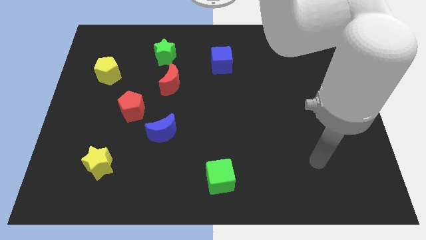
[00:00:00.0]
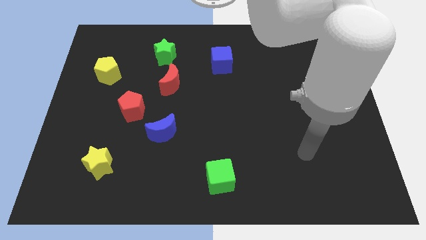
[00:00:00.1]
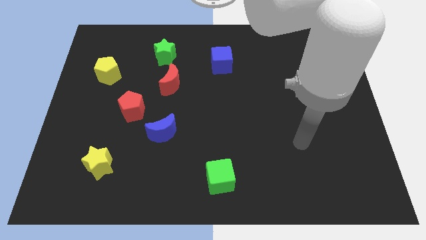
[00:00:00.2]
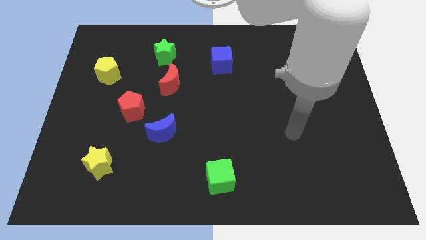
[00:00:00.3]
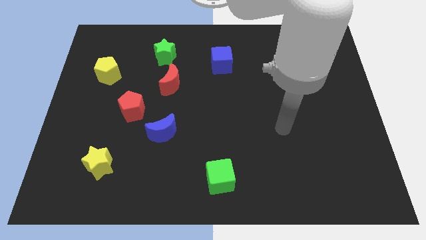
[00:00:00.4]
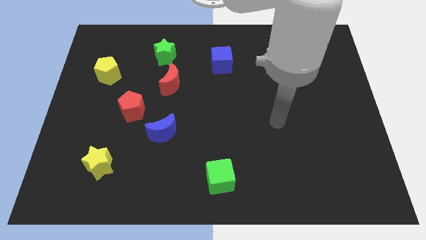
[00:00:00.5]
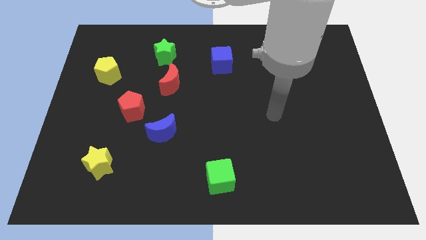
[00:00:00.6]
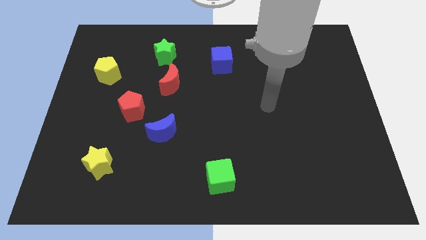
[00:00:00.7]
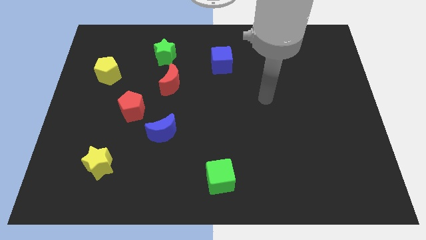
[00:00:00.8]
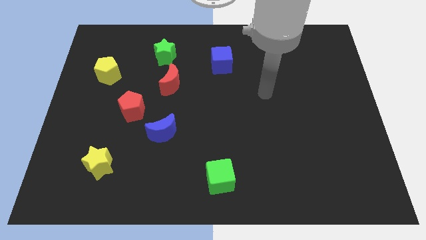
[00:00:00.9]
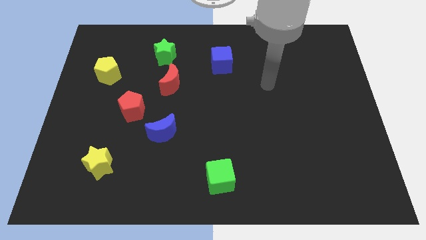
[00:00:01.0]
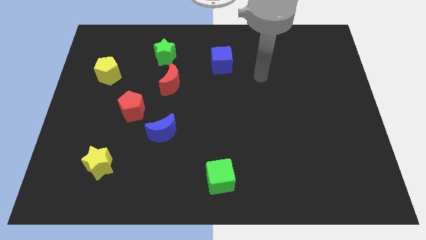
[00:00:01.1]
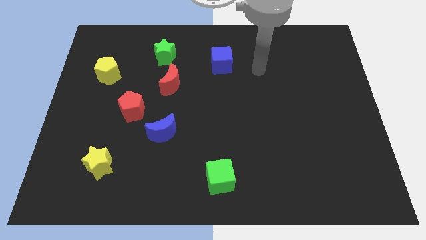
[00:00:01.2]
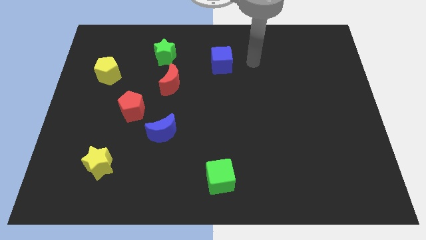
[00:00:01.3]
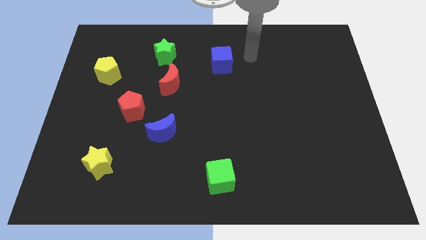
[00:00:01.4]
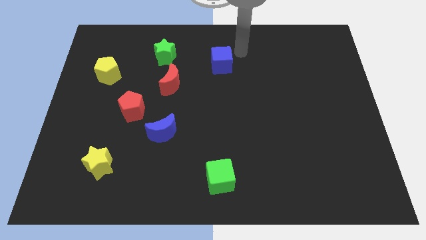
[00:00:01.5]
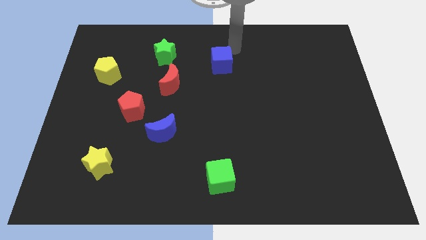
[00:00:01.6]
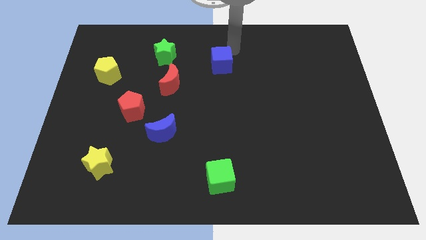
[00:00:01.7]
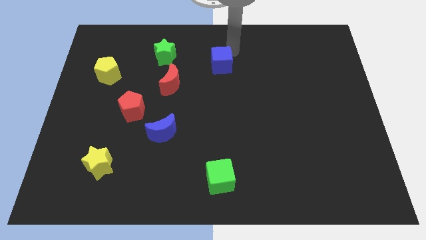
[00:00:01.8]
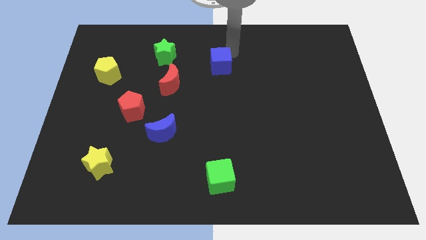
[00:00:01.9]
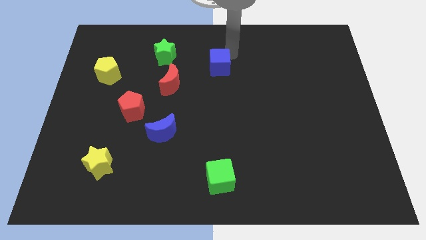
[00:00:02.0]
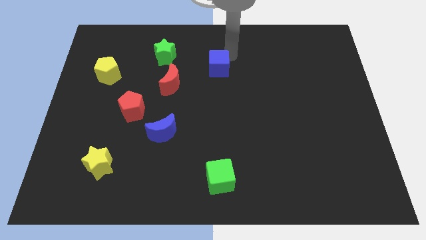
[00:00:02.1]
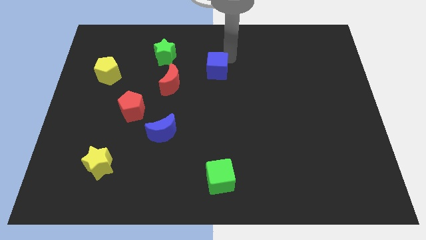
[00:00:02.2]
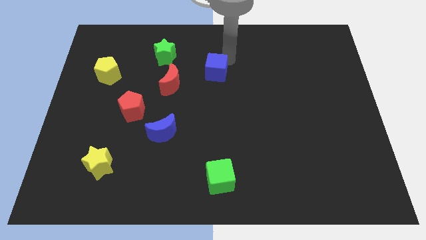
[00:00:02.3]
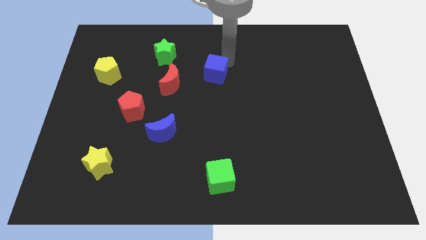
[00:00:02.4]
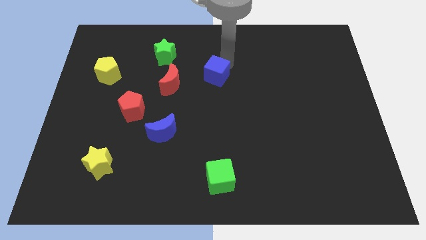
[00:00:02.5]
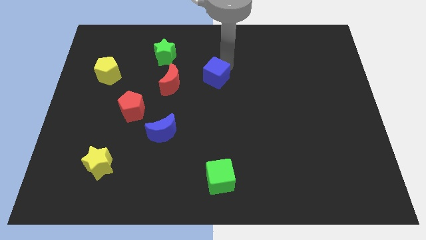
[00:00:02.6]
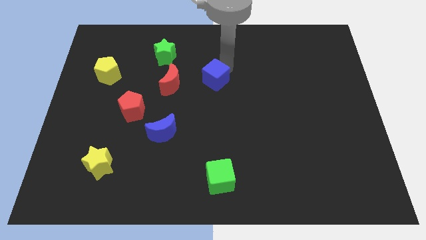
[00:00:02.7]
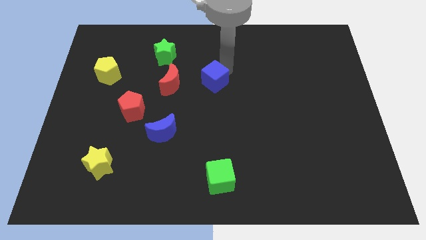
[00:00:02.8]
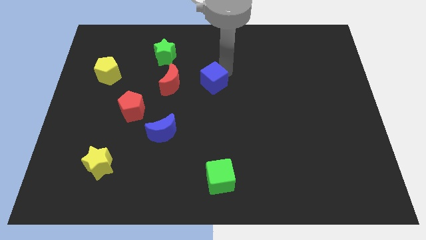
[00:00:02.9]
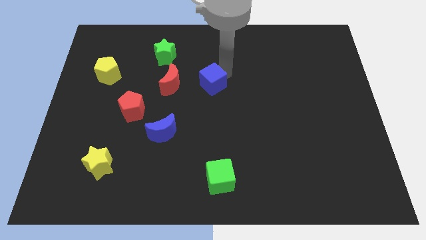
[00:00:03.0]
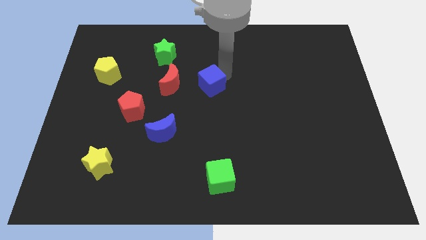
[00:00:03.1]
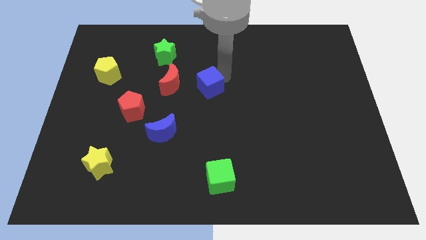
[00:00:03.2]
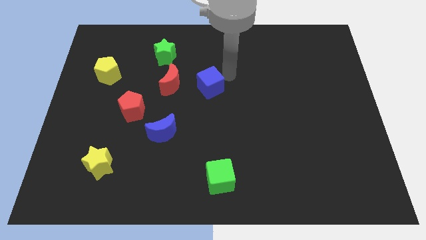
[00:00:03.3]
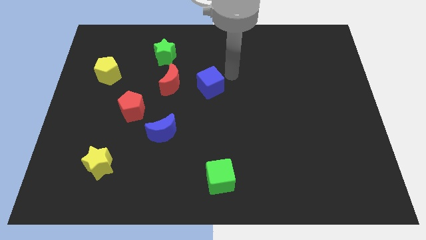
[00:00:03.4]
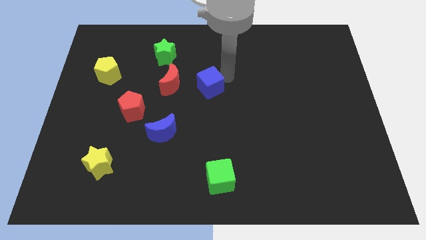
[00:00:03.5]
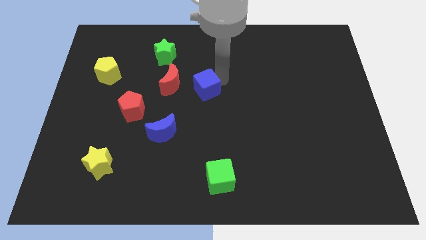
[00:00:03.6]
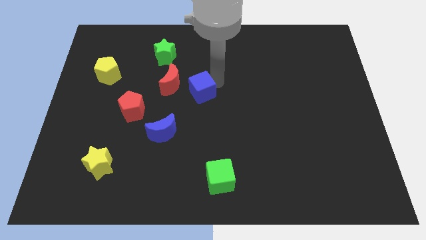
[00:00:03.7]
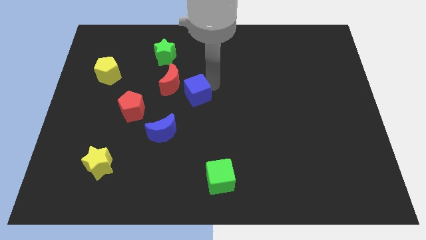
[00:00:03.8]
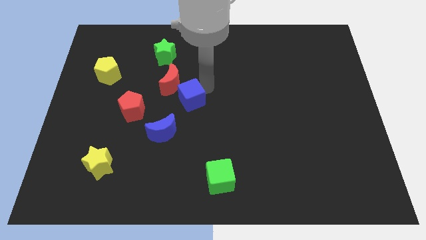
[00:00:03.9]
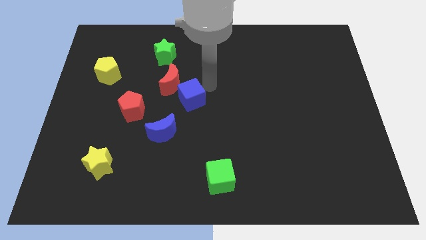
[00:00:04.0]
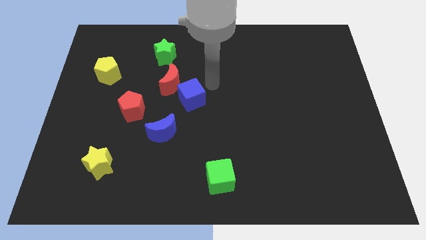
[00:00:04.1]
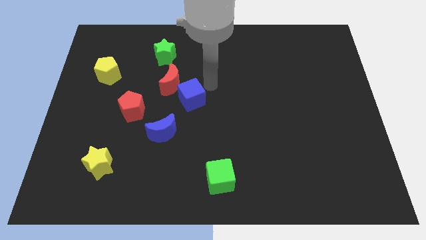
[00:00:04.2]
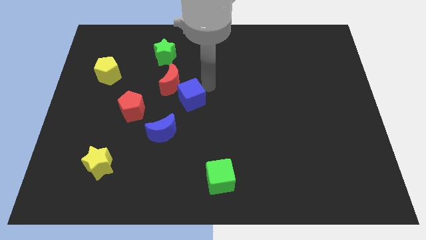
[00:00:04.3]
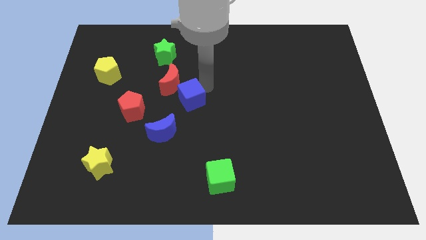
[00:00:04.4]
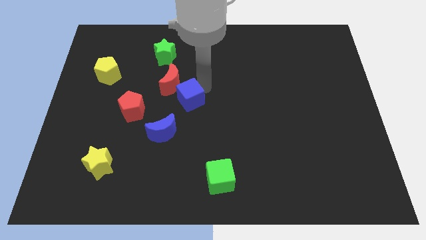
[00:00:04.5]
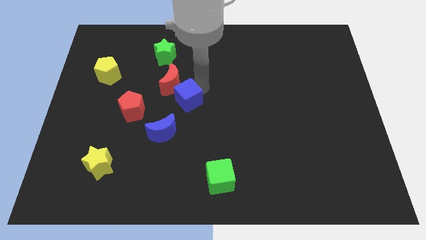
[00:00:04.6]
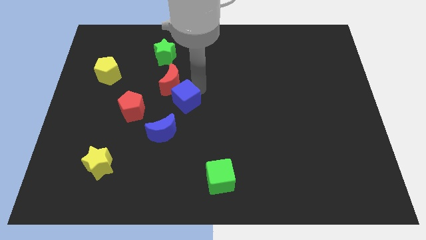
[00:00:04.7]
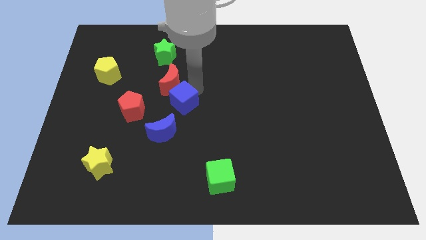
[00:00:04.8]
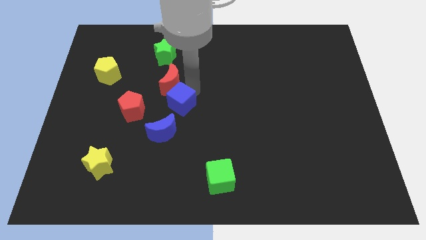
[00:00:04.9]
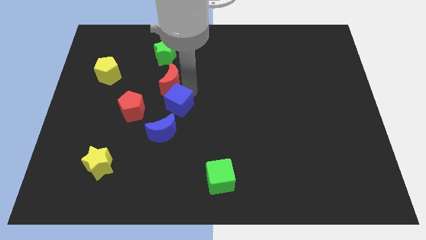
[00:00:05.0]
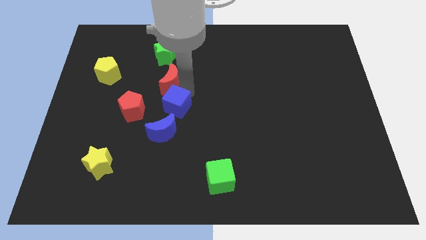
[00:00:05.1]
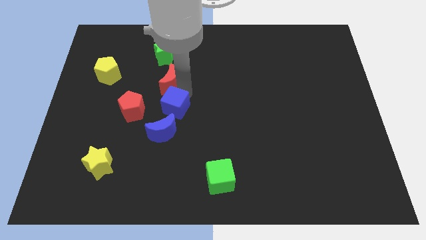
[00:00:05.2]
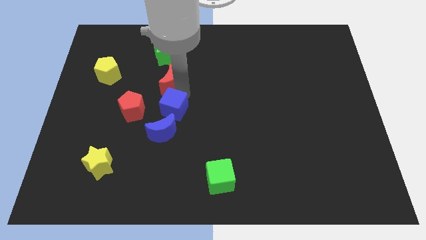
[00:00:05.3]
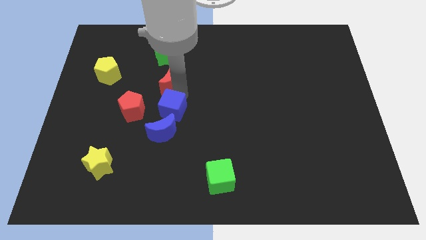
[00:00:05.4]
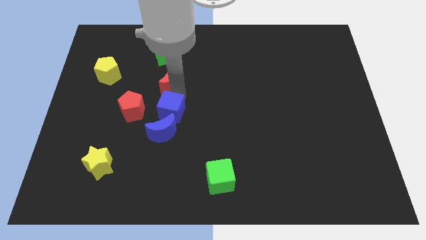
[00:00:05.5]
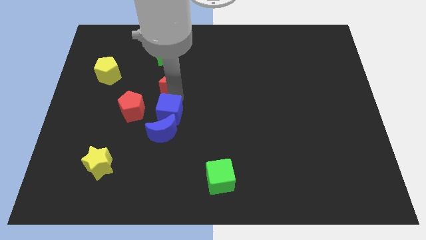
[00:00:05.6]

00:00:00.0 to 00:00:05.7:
push the blue cube towards the blue moon

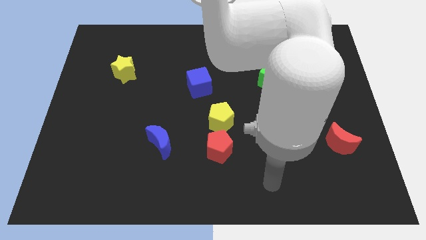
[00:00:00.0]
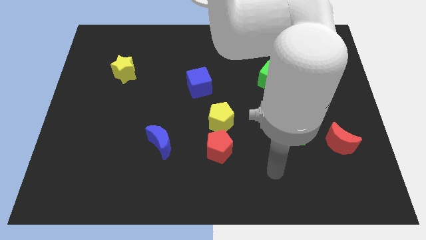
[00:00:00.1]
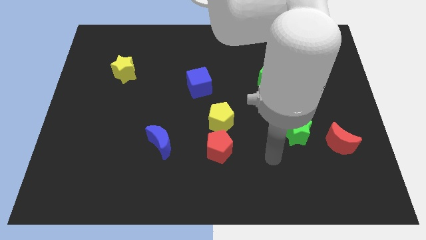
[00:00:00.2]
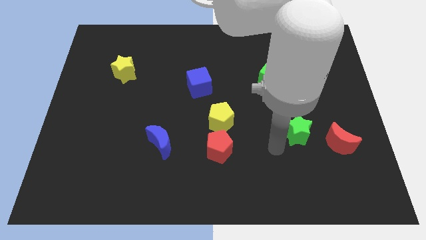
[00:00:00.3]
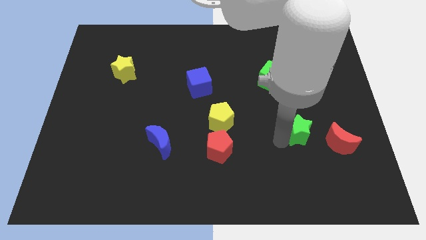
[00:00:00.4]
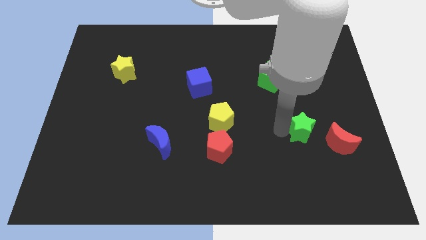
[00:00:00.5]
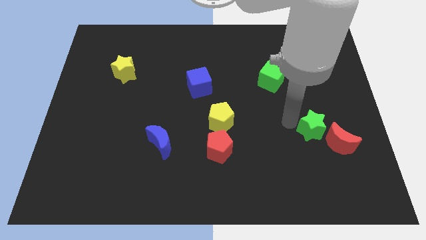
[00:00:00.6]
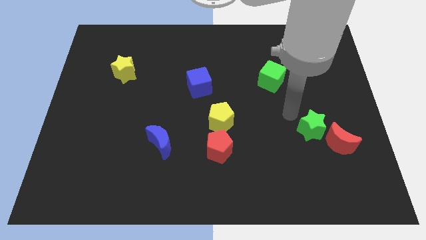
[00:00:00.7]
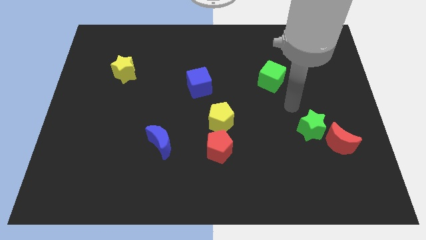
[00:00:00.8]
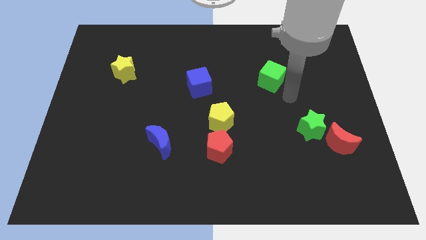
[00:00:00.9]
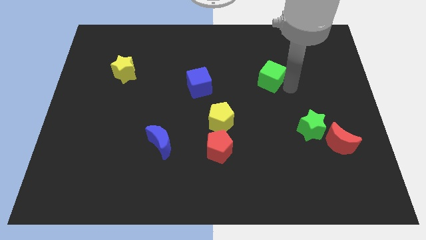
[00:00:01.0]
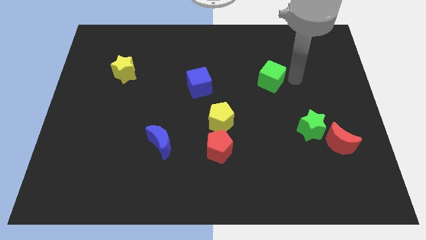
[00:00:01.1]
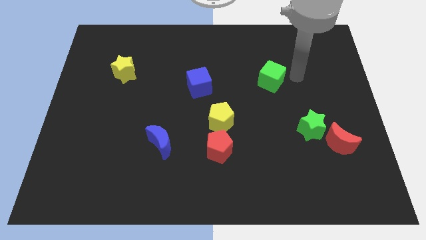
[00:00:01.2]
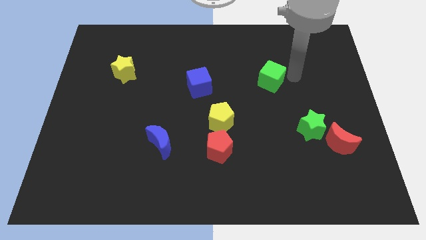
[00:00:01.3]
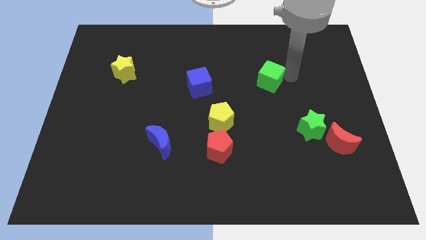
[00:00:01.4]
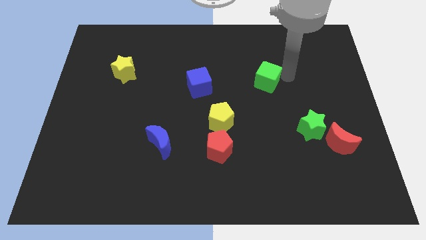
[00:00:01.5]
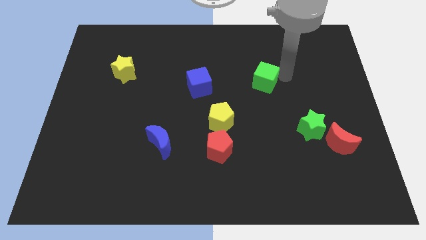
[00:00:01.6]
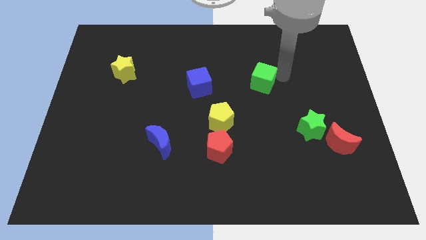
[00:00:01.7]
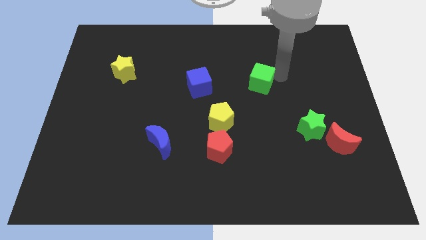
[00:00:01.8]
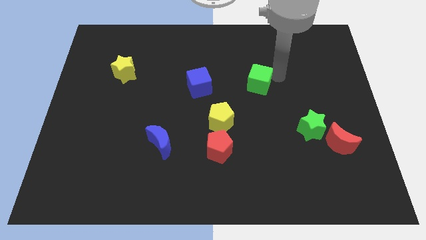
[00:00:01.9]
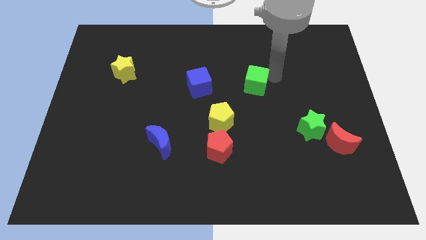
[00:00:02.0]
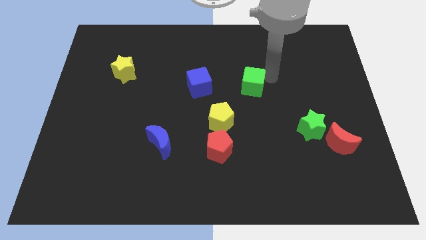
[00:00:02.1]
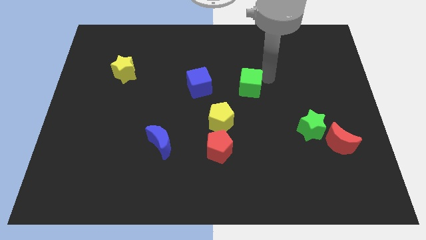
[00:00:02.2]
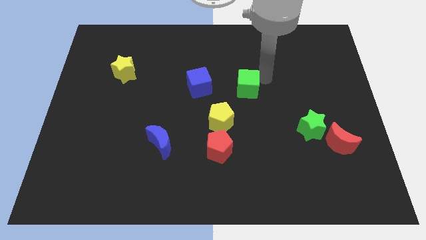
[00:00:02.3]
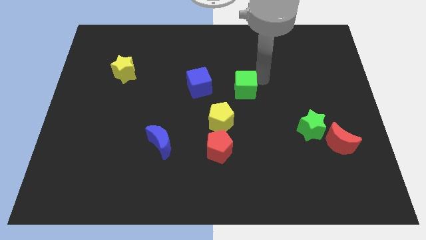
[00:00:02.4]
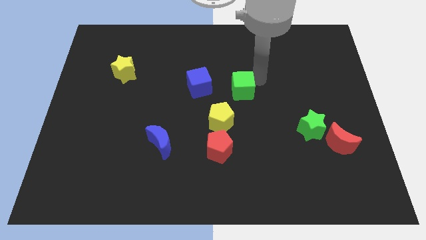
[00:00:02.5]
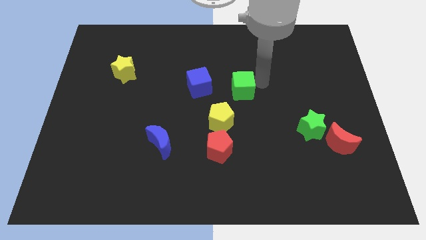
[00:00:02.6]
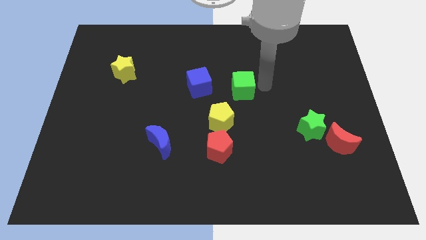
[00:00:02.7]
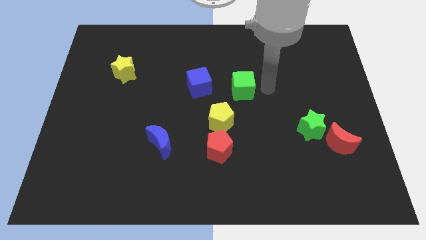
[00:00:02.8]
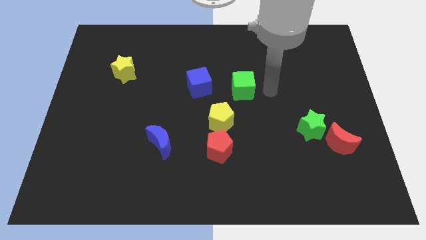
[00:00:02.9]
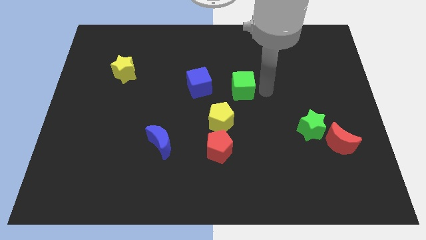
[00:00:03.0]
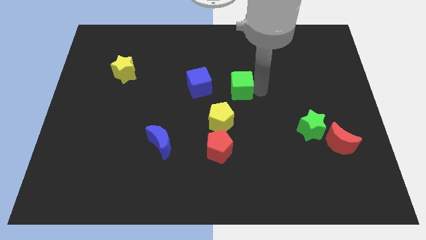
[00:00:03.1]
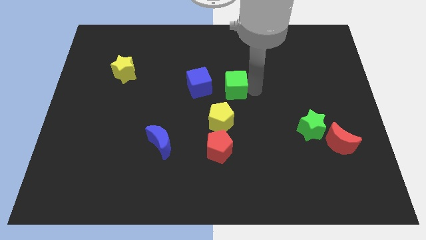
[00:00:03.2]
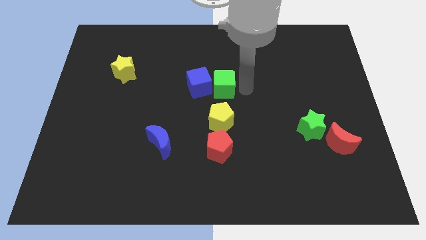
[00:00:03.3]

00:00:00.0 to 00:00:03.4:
put the green cube next to the blue cube
